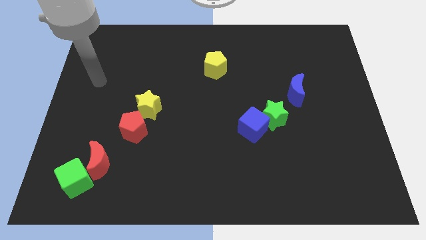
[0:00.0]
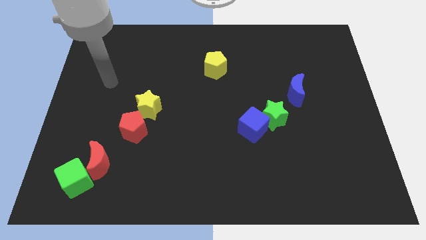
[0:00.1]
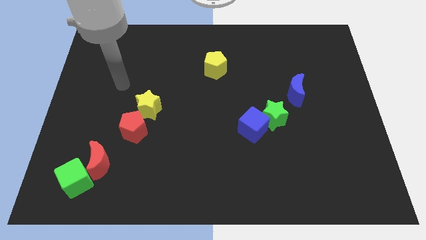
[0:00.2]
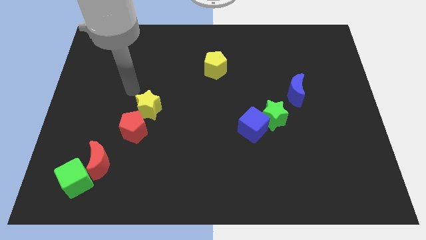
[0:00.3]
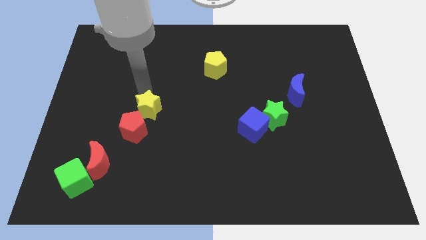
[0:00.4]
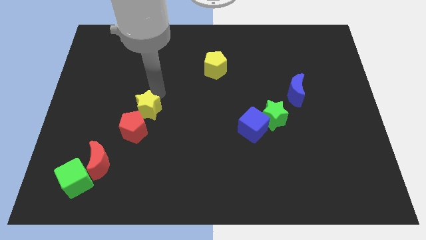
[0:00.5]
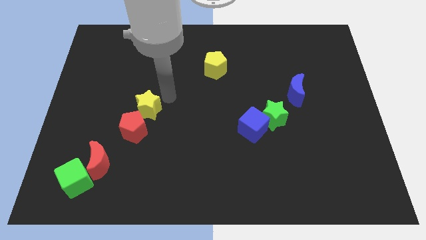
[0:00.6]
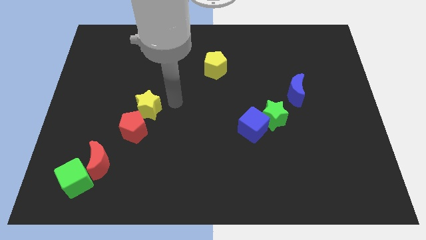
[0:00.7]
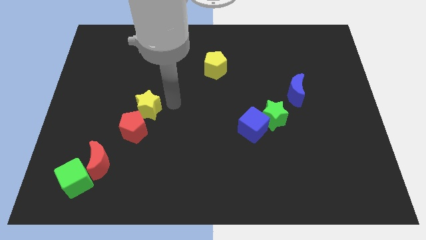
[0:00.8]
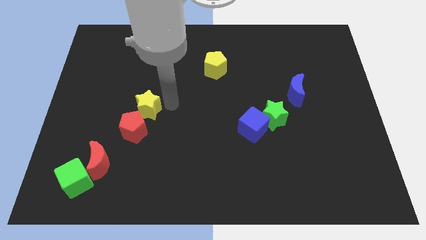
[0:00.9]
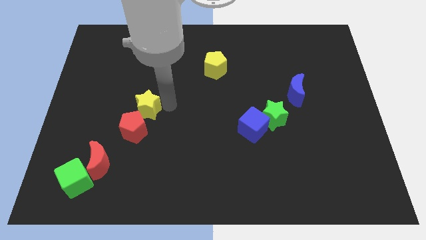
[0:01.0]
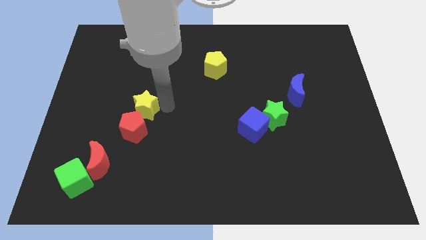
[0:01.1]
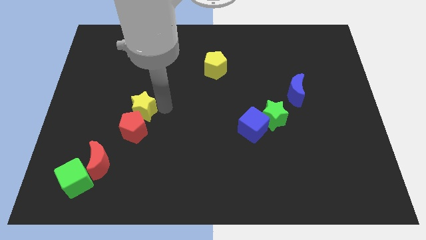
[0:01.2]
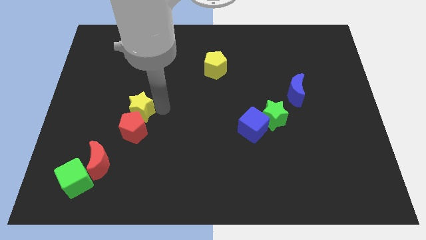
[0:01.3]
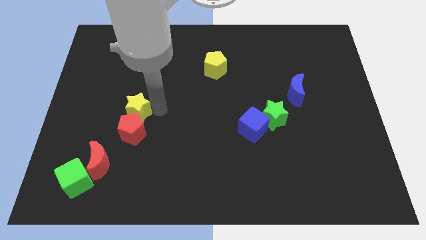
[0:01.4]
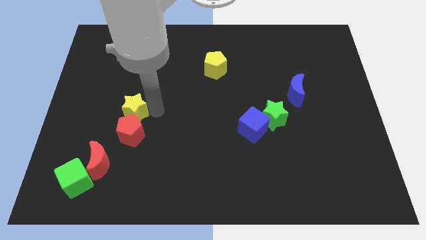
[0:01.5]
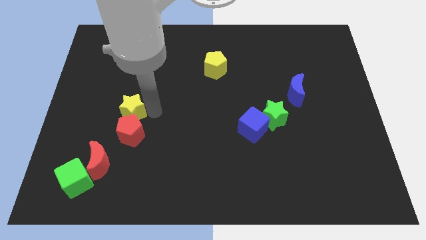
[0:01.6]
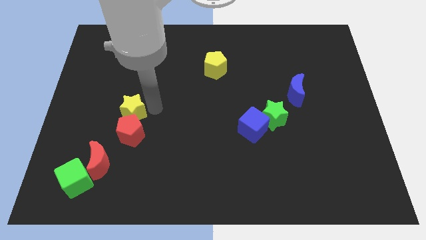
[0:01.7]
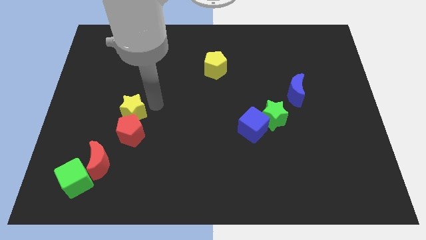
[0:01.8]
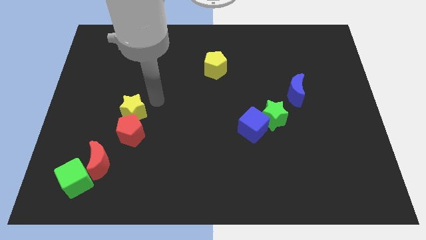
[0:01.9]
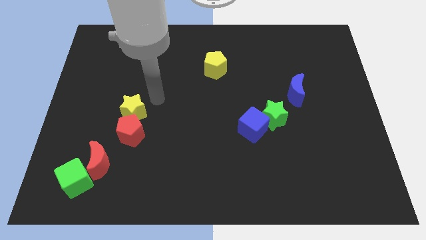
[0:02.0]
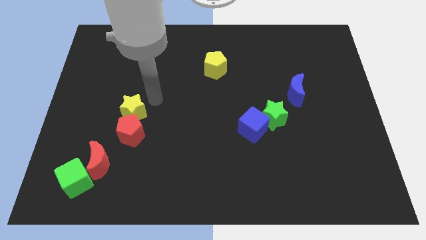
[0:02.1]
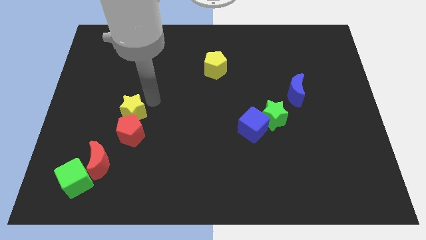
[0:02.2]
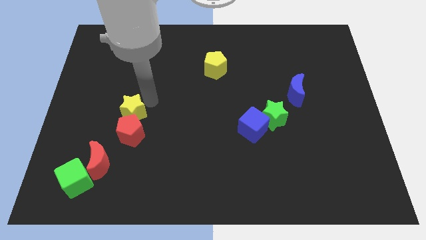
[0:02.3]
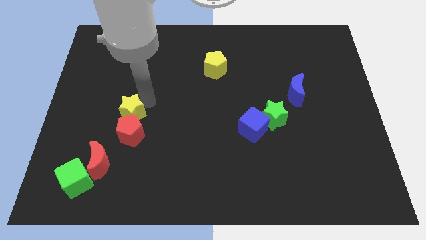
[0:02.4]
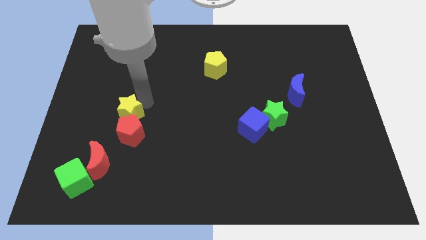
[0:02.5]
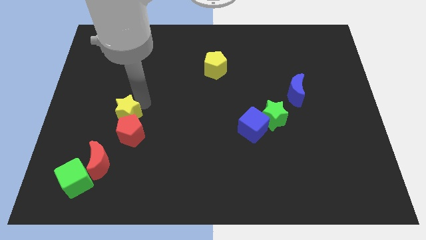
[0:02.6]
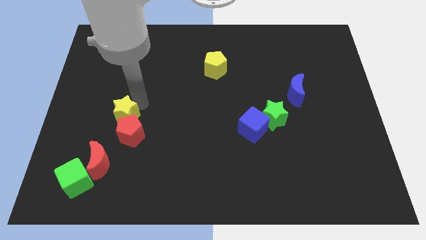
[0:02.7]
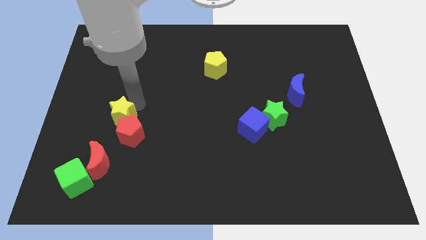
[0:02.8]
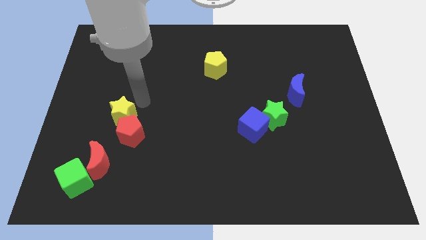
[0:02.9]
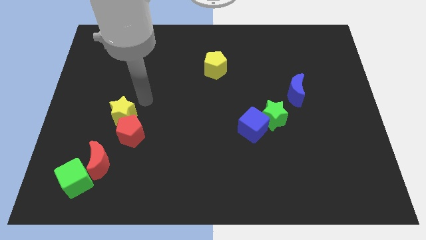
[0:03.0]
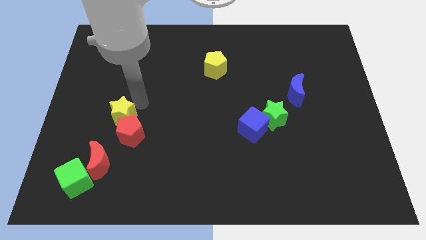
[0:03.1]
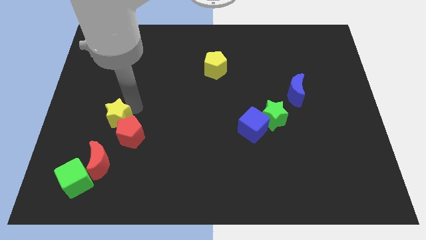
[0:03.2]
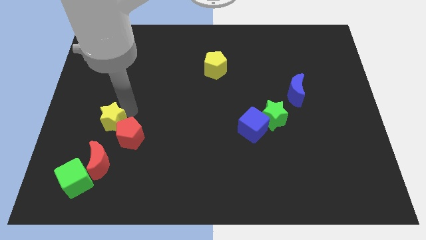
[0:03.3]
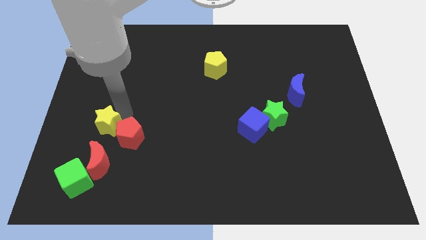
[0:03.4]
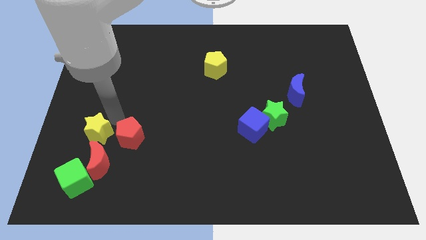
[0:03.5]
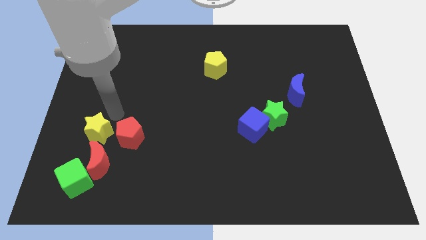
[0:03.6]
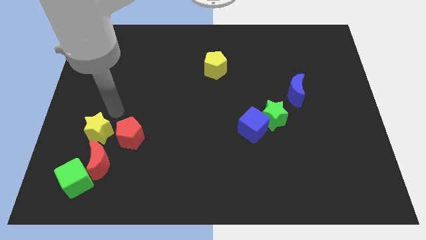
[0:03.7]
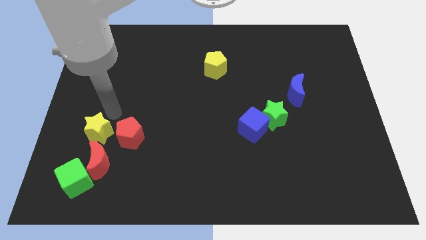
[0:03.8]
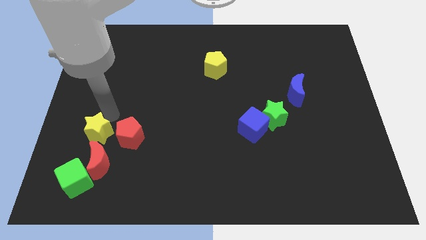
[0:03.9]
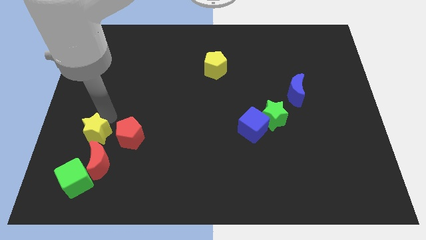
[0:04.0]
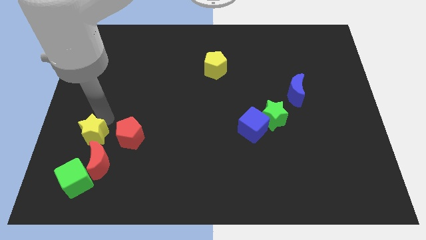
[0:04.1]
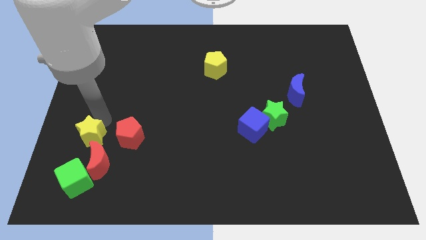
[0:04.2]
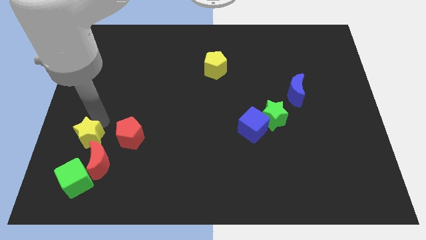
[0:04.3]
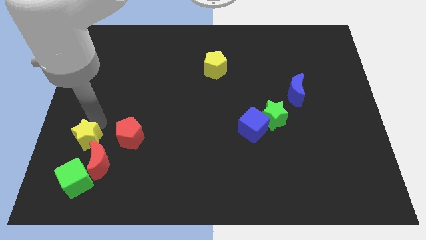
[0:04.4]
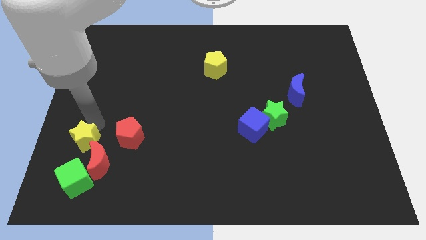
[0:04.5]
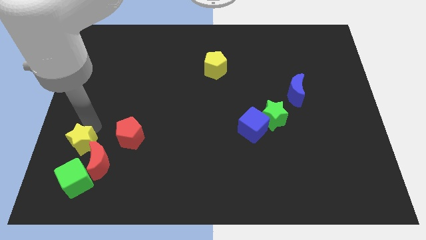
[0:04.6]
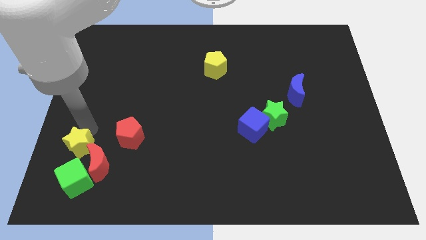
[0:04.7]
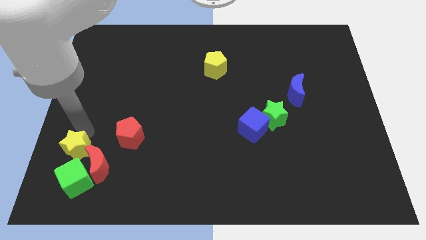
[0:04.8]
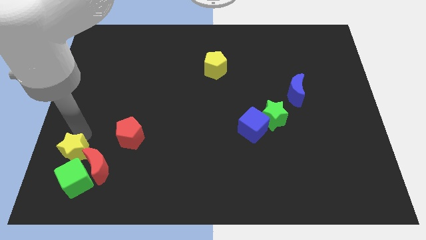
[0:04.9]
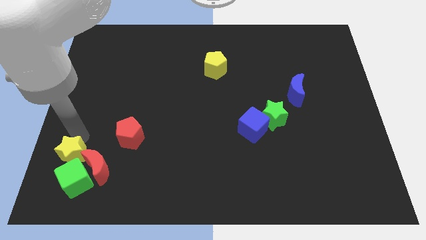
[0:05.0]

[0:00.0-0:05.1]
slide the yellow star next to the green cube

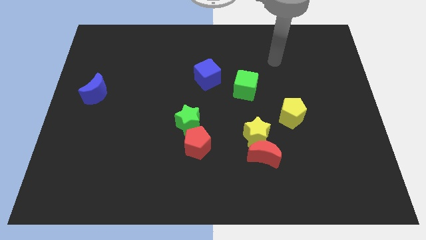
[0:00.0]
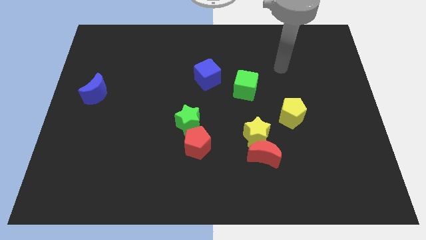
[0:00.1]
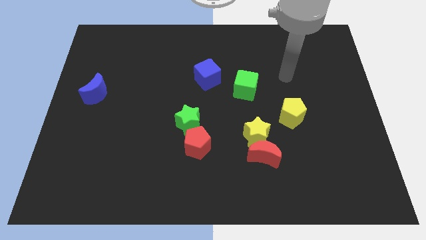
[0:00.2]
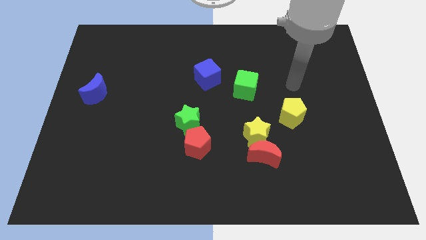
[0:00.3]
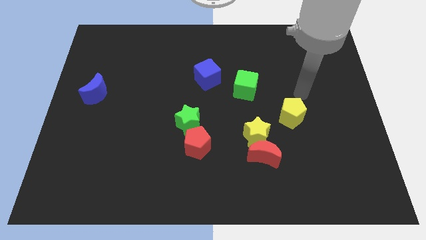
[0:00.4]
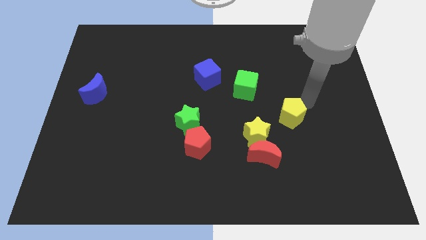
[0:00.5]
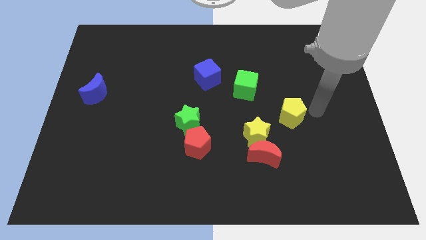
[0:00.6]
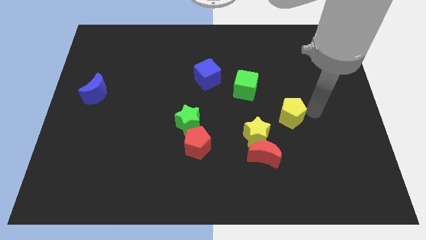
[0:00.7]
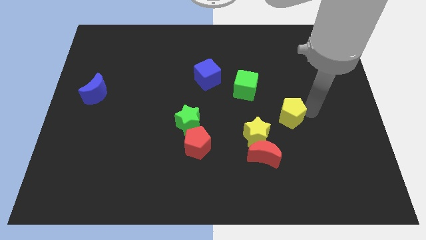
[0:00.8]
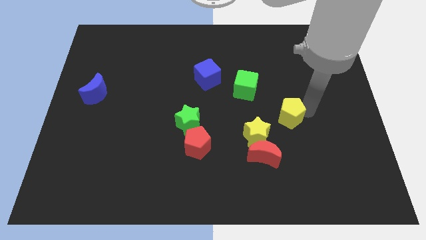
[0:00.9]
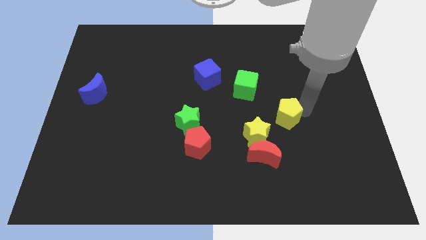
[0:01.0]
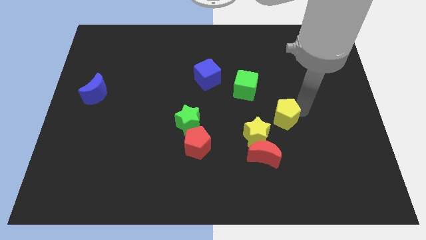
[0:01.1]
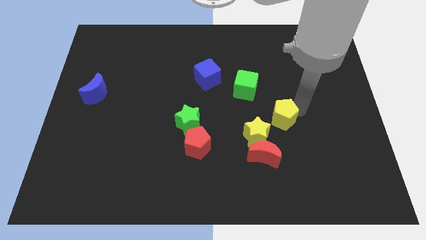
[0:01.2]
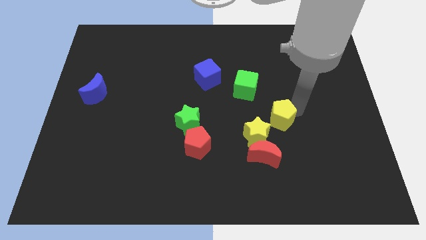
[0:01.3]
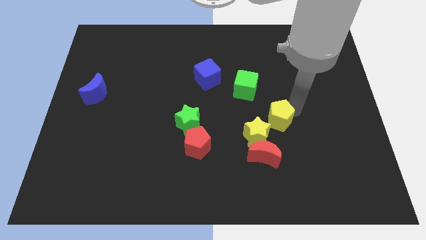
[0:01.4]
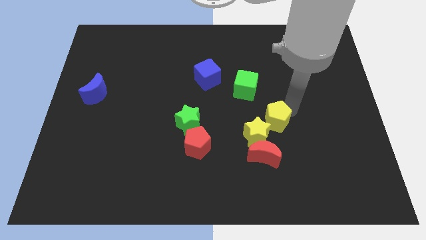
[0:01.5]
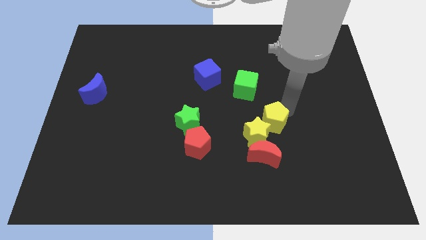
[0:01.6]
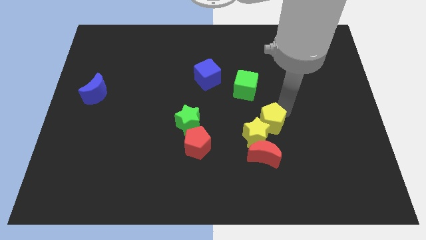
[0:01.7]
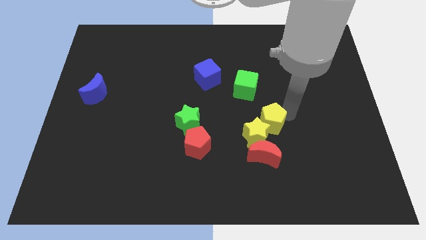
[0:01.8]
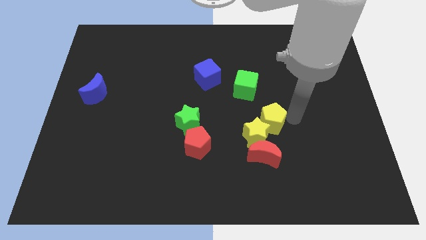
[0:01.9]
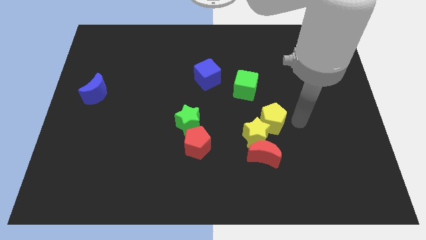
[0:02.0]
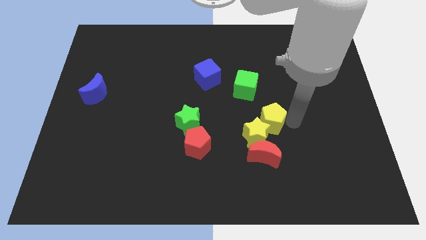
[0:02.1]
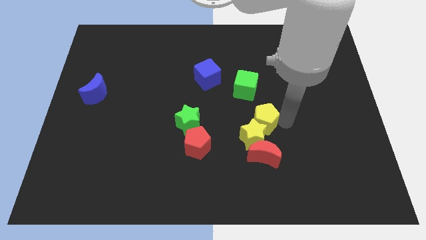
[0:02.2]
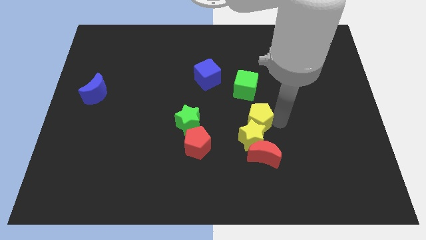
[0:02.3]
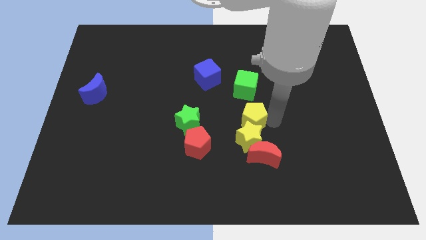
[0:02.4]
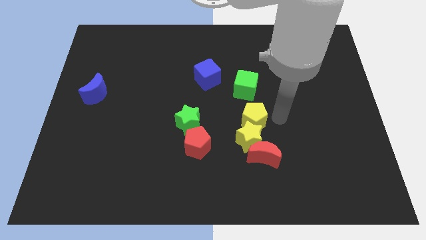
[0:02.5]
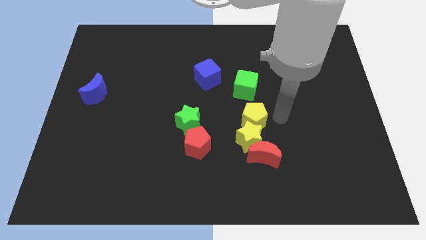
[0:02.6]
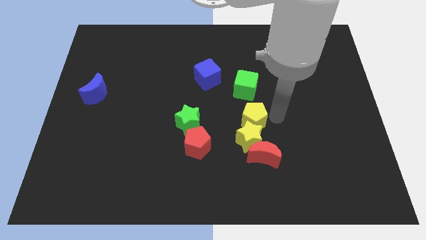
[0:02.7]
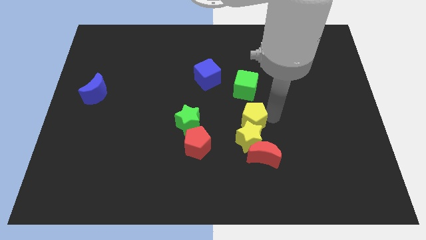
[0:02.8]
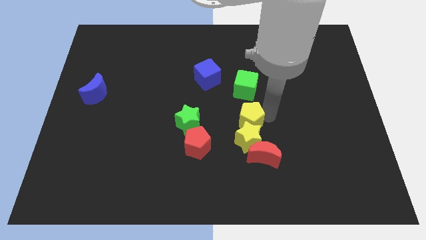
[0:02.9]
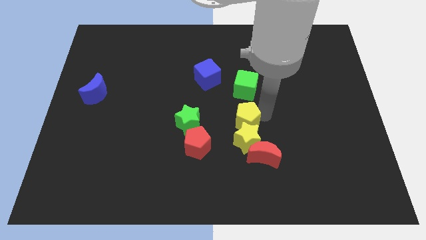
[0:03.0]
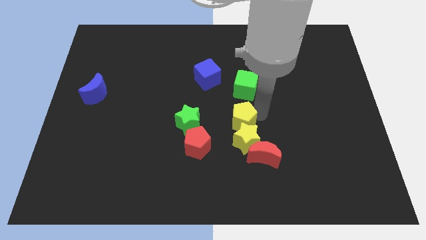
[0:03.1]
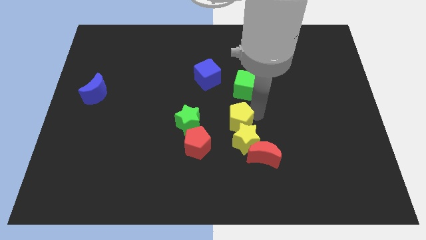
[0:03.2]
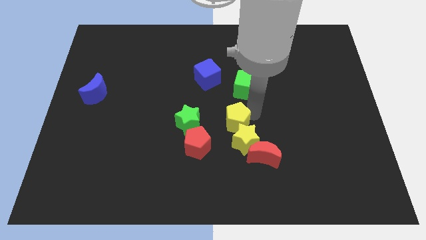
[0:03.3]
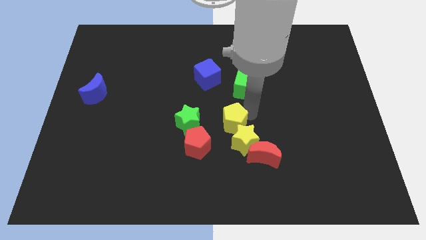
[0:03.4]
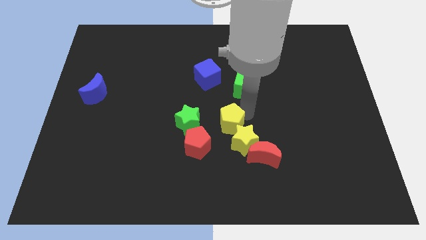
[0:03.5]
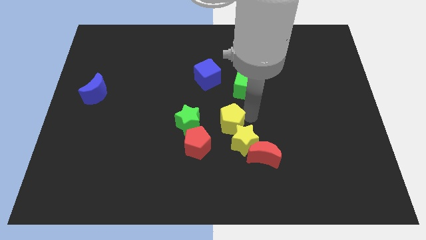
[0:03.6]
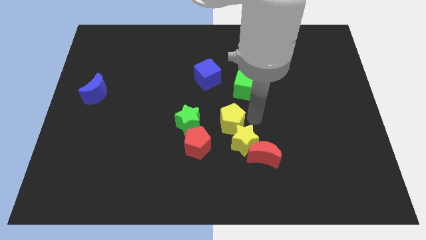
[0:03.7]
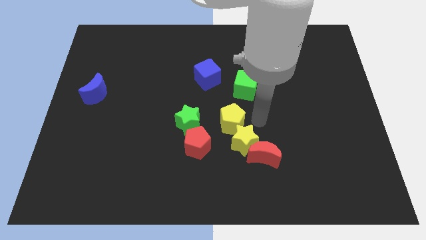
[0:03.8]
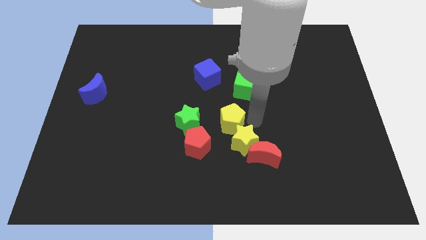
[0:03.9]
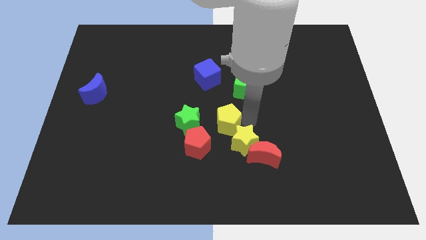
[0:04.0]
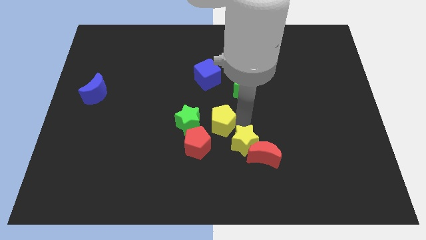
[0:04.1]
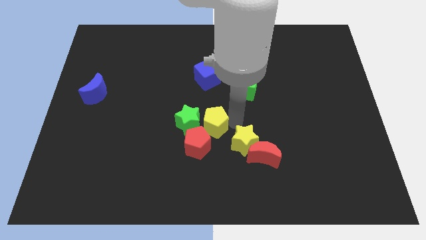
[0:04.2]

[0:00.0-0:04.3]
push the yellow pentagon next to the green star
